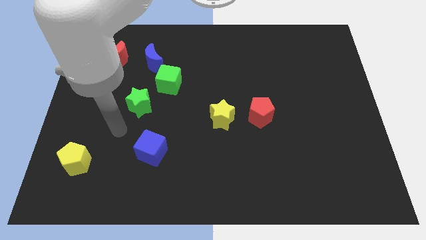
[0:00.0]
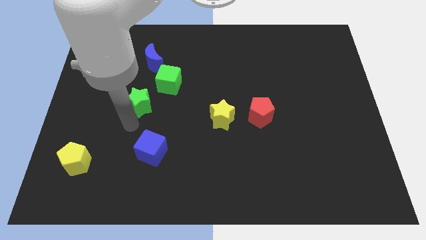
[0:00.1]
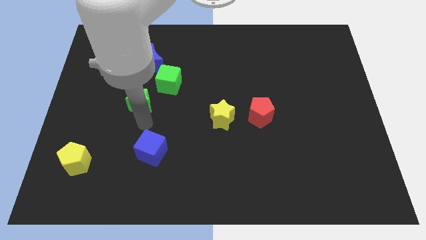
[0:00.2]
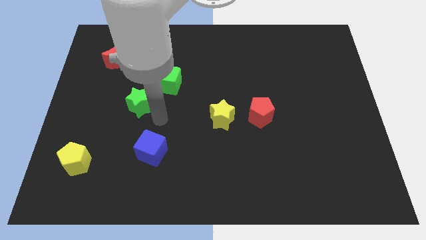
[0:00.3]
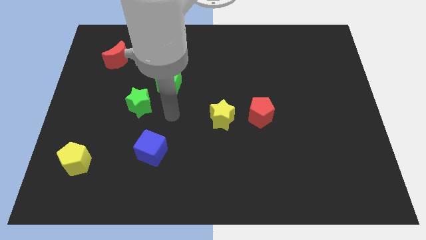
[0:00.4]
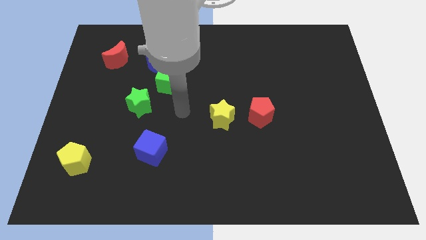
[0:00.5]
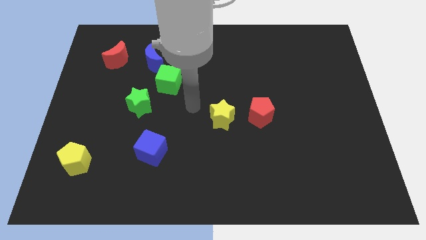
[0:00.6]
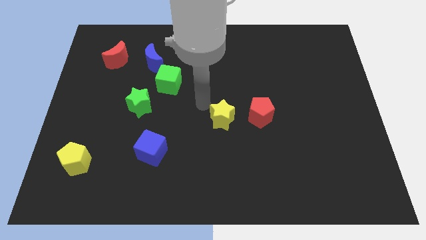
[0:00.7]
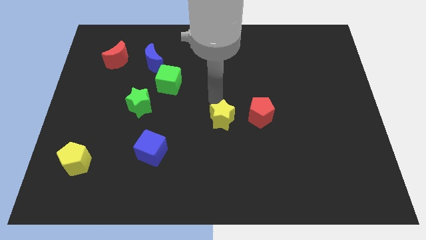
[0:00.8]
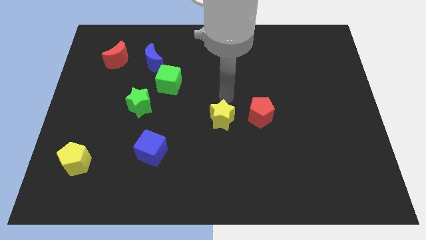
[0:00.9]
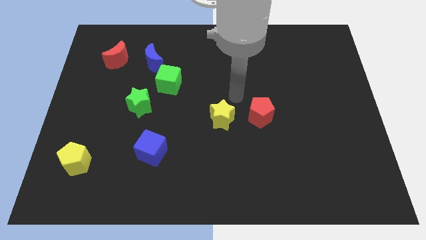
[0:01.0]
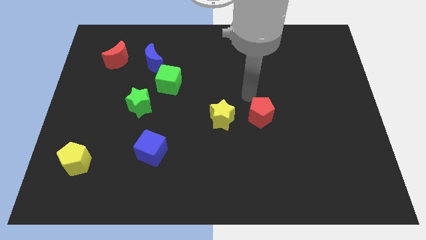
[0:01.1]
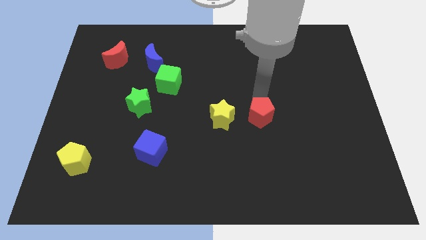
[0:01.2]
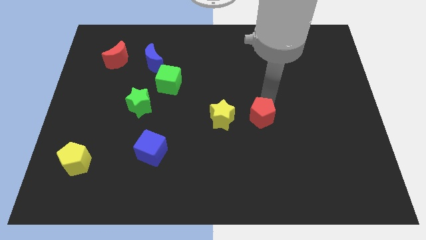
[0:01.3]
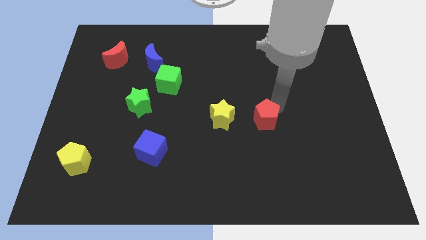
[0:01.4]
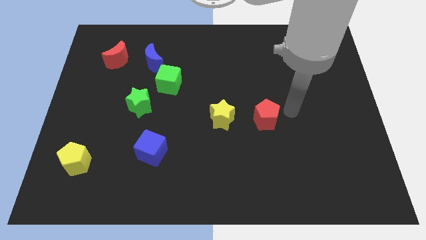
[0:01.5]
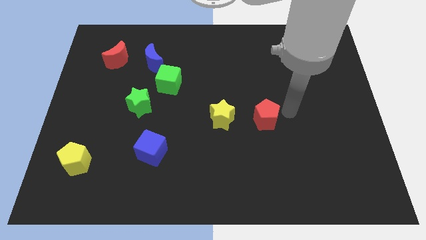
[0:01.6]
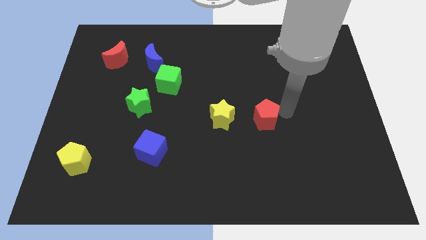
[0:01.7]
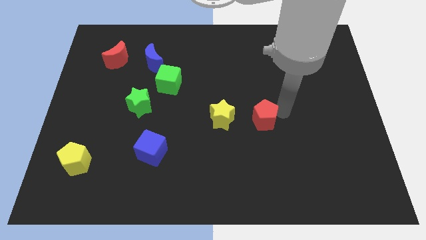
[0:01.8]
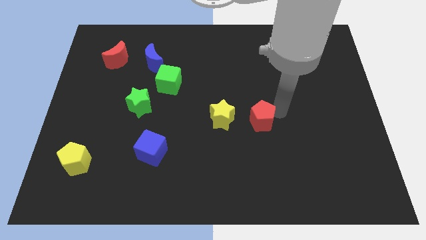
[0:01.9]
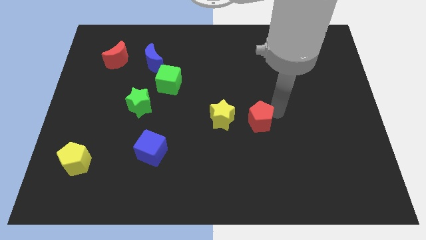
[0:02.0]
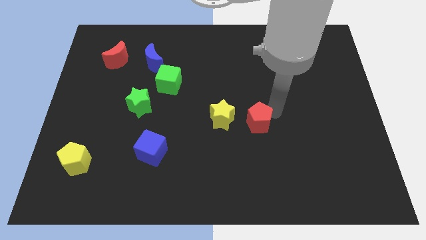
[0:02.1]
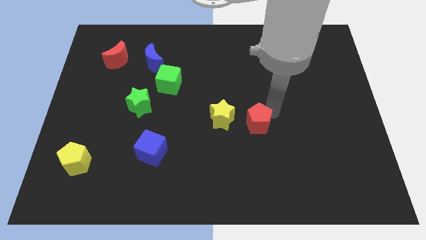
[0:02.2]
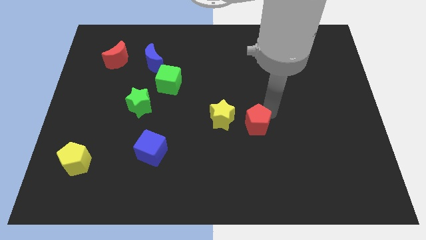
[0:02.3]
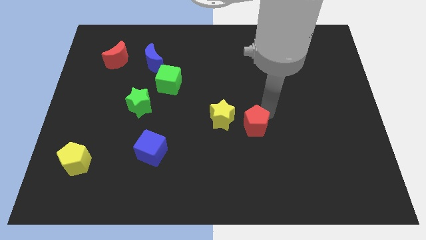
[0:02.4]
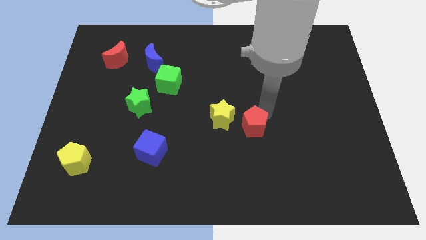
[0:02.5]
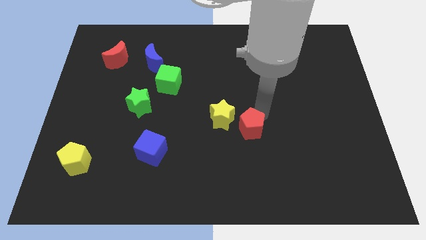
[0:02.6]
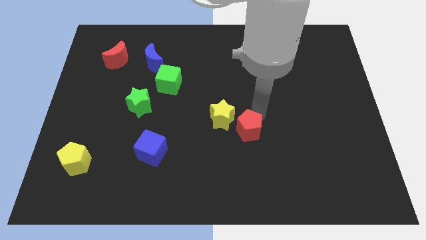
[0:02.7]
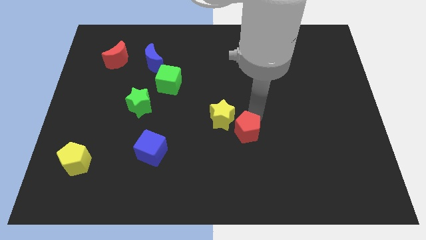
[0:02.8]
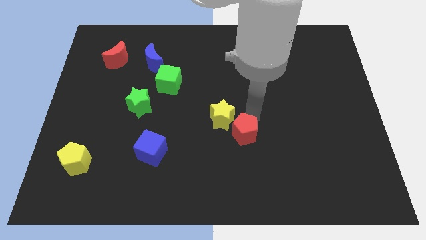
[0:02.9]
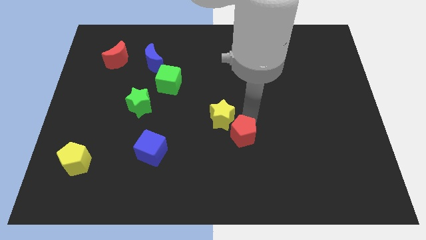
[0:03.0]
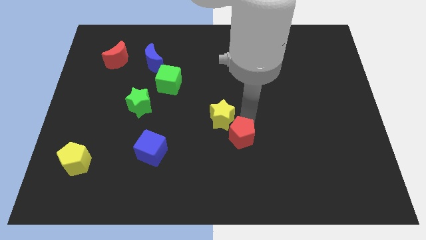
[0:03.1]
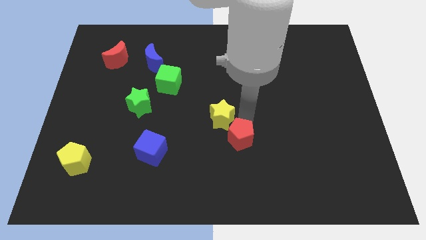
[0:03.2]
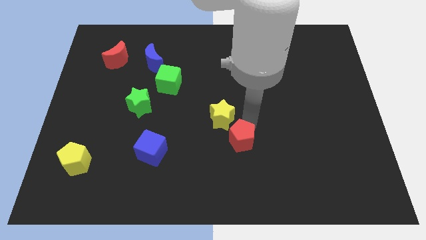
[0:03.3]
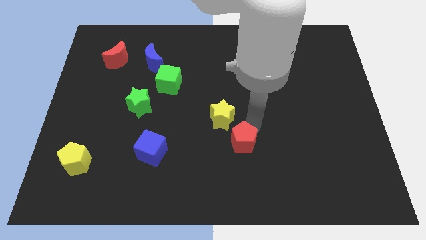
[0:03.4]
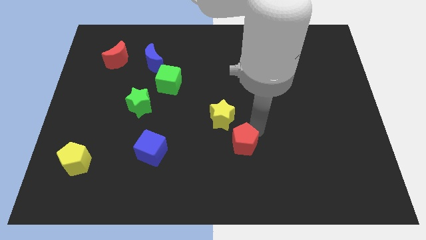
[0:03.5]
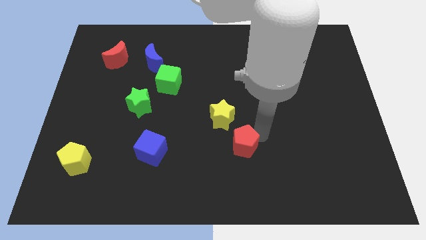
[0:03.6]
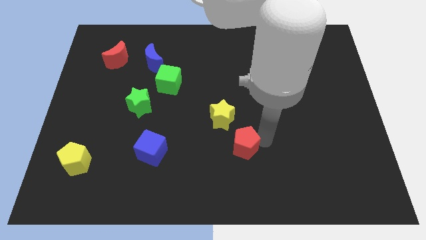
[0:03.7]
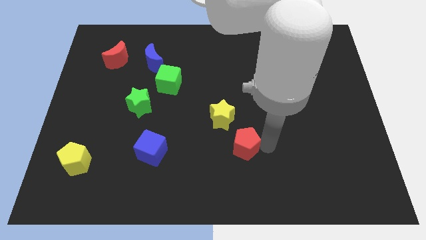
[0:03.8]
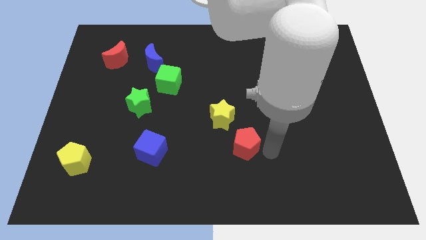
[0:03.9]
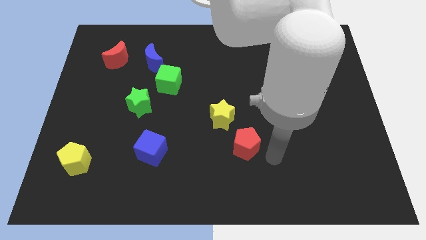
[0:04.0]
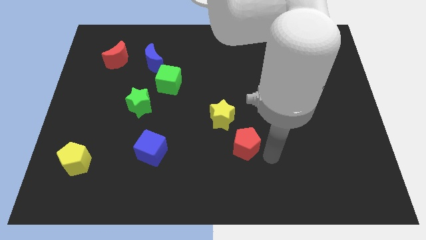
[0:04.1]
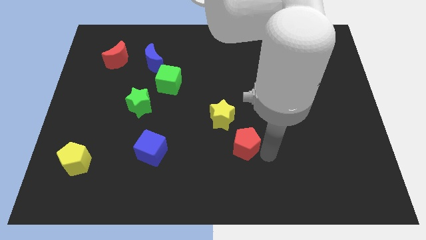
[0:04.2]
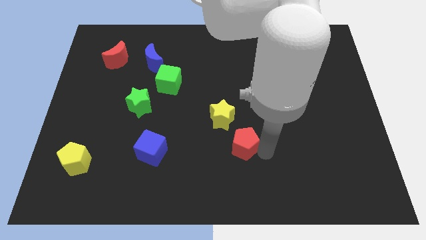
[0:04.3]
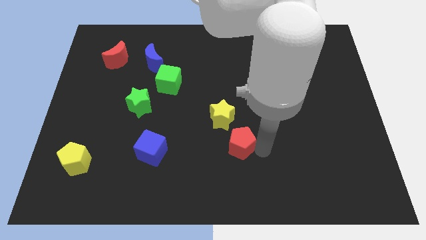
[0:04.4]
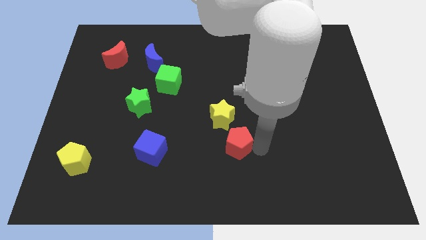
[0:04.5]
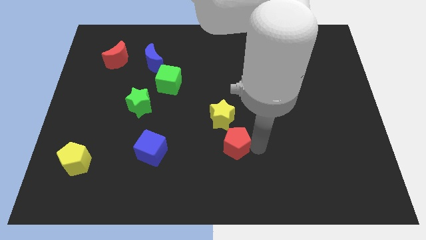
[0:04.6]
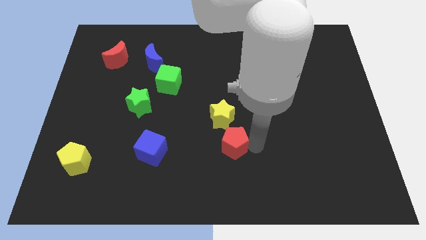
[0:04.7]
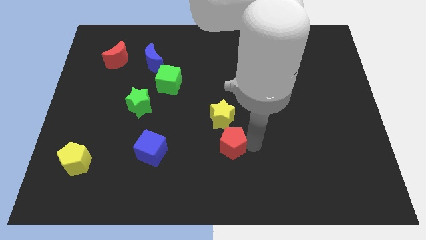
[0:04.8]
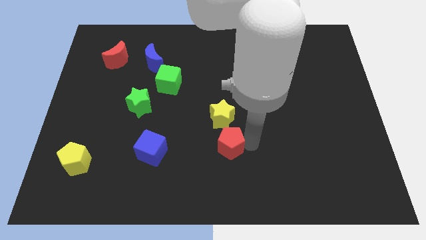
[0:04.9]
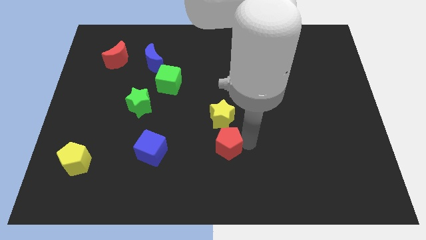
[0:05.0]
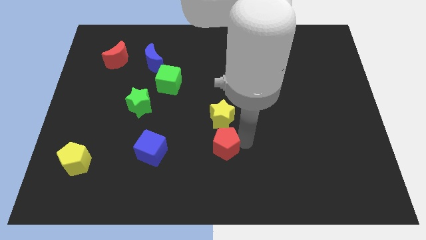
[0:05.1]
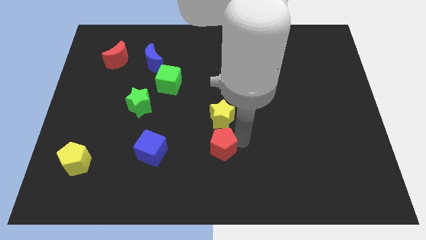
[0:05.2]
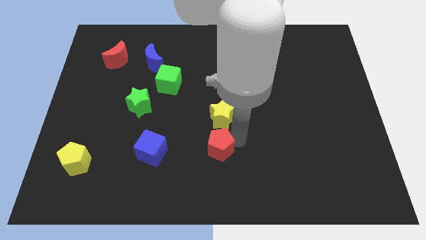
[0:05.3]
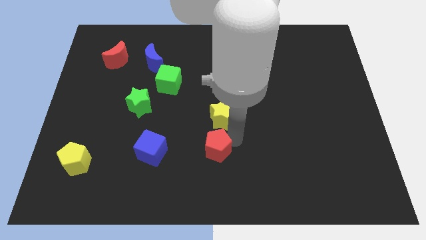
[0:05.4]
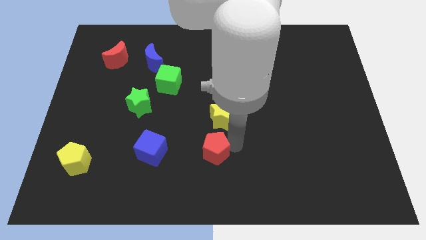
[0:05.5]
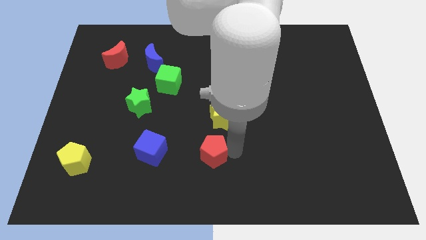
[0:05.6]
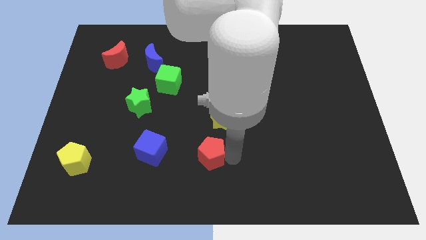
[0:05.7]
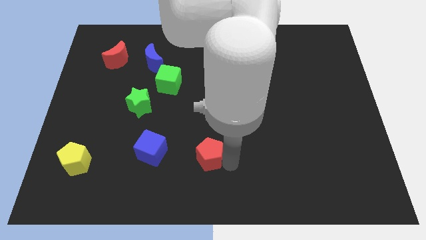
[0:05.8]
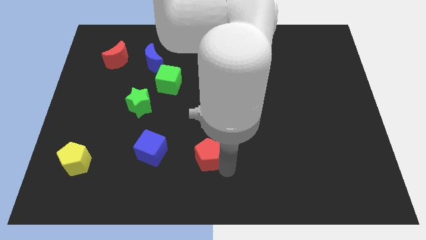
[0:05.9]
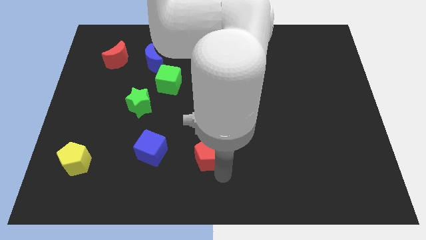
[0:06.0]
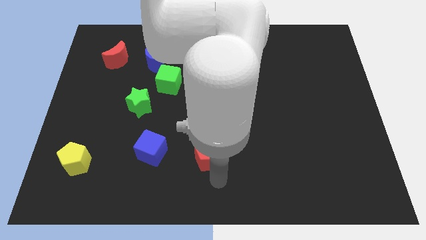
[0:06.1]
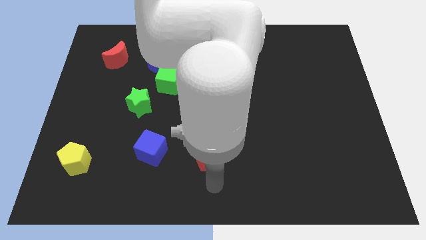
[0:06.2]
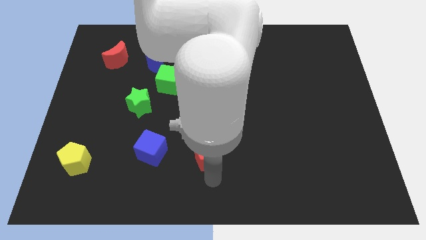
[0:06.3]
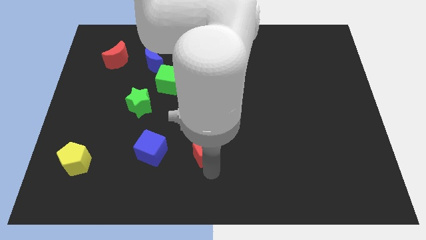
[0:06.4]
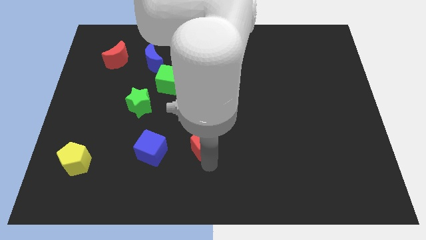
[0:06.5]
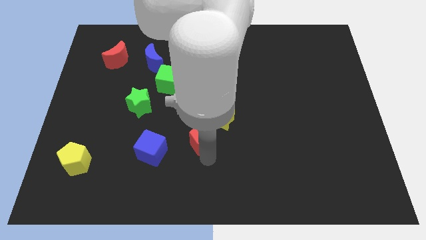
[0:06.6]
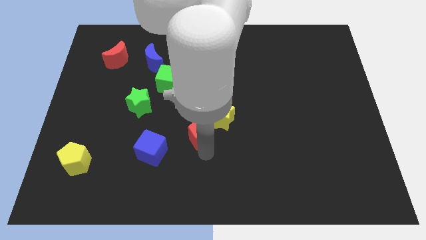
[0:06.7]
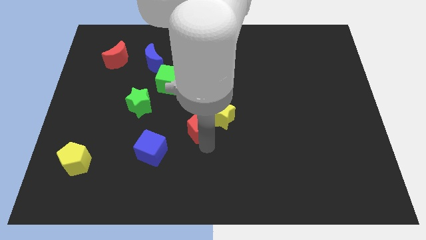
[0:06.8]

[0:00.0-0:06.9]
put the red pentagon to the top right side of the blue cube

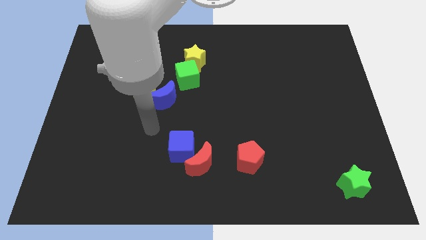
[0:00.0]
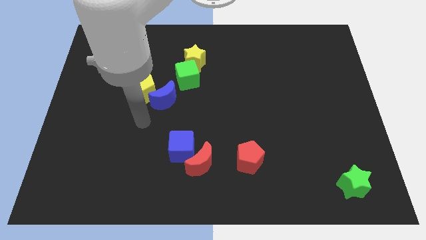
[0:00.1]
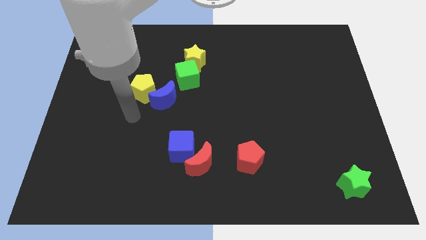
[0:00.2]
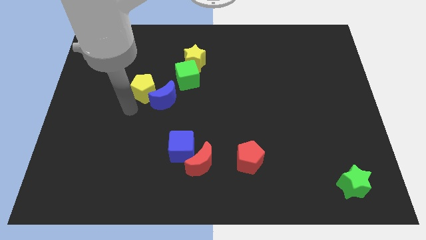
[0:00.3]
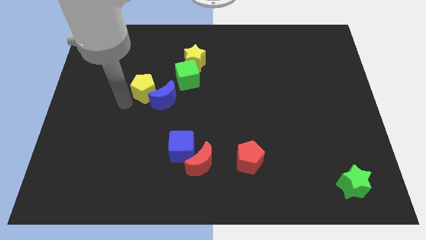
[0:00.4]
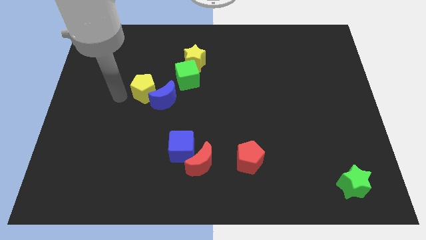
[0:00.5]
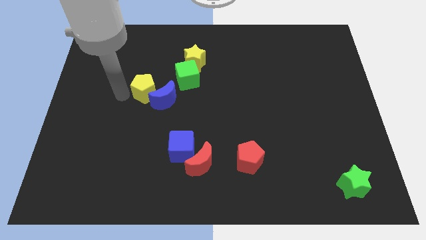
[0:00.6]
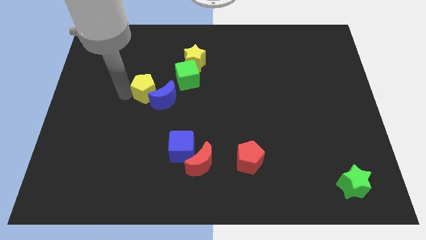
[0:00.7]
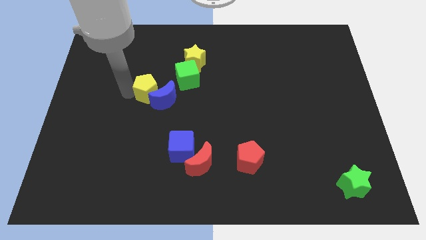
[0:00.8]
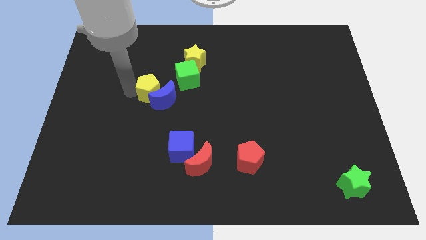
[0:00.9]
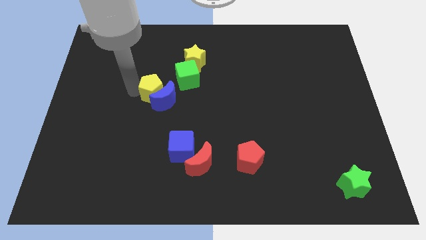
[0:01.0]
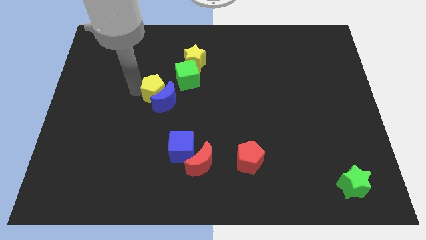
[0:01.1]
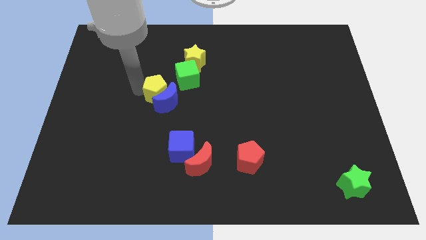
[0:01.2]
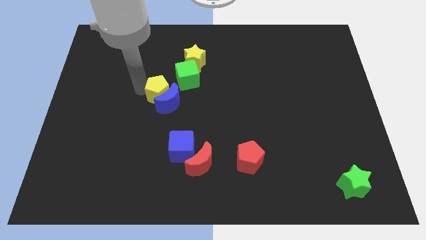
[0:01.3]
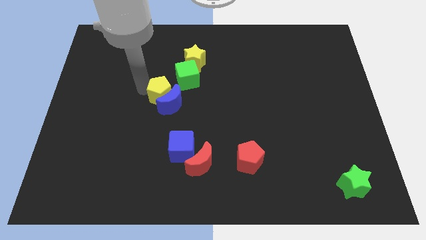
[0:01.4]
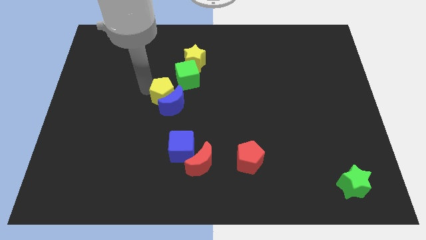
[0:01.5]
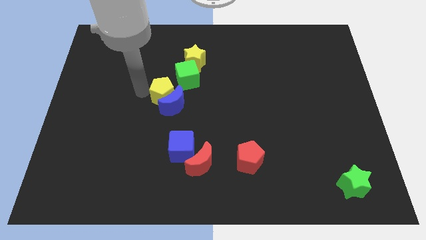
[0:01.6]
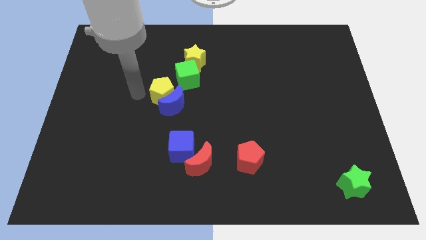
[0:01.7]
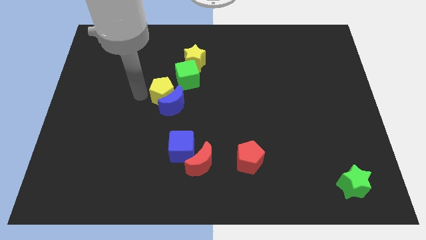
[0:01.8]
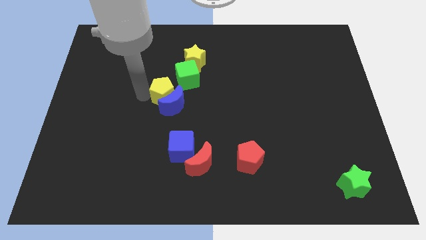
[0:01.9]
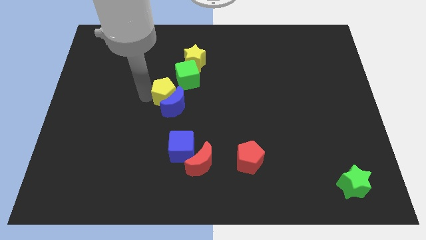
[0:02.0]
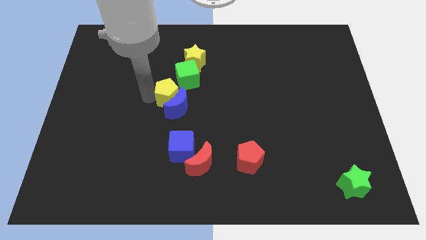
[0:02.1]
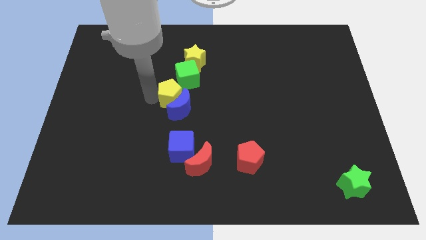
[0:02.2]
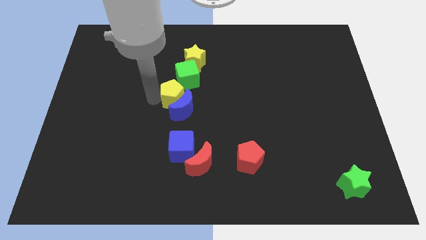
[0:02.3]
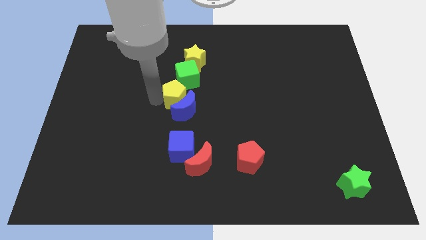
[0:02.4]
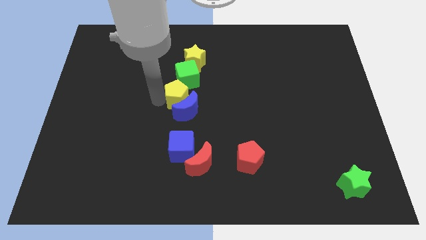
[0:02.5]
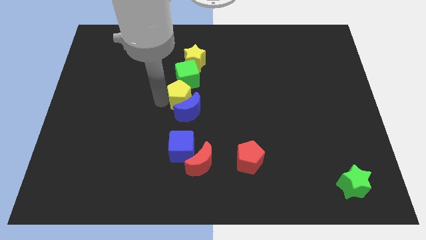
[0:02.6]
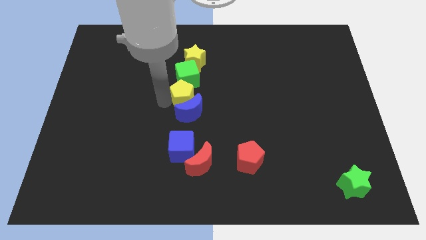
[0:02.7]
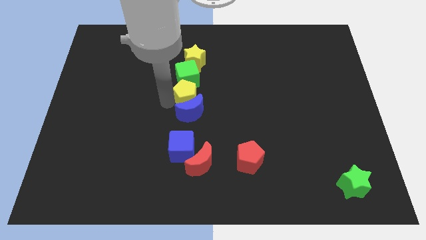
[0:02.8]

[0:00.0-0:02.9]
push the yellow pentagon diagonally down and to the right of the green cube
